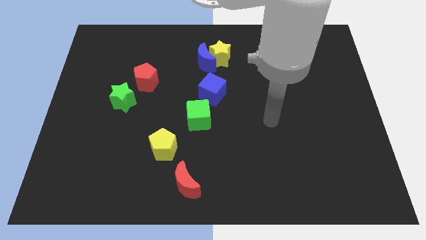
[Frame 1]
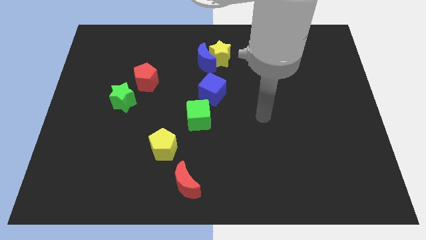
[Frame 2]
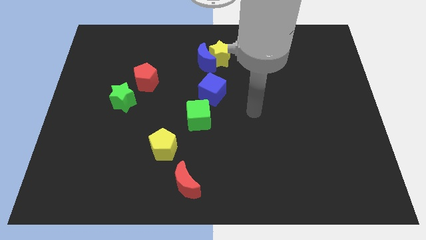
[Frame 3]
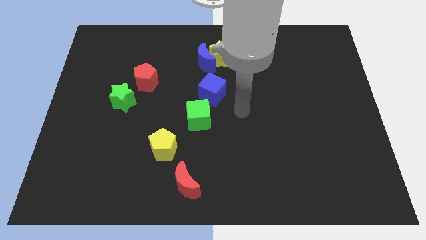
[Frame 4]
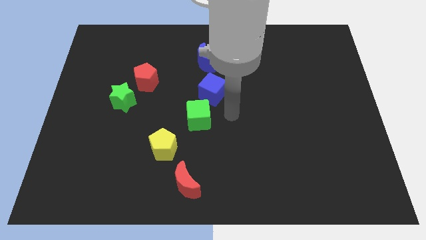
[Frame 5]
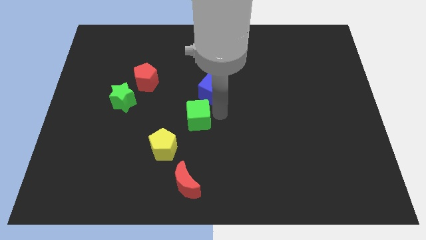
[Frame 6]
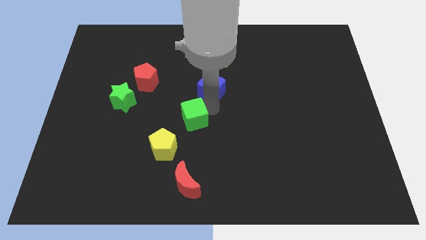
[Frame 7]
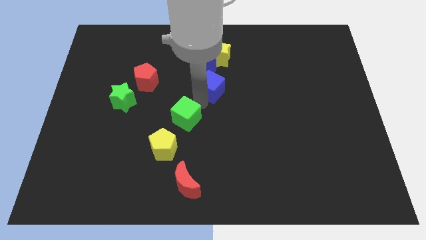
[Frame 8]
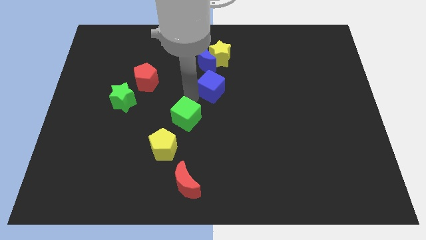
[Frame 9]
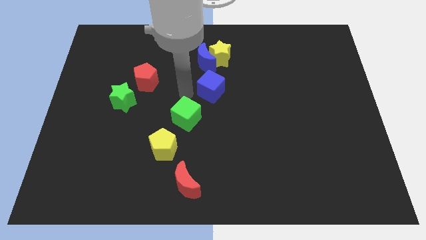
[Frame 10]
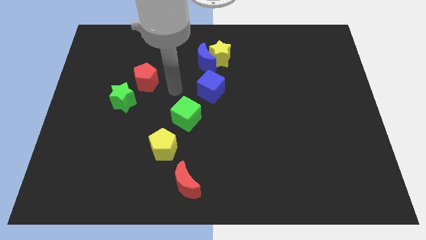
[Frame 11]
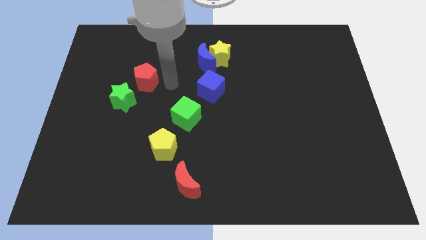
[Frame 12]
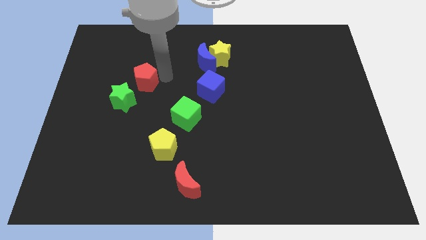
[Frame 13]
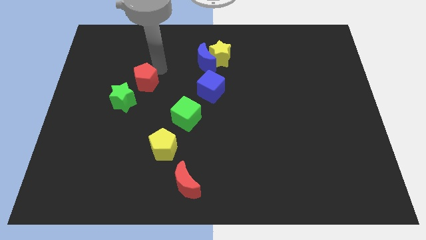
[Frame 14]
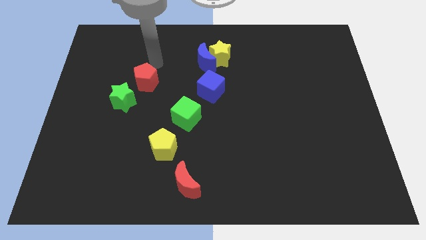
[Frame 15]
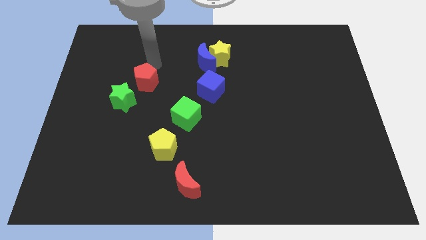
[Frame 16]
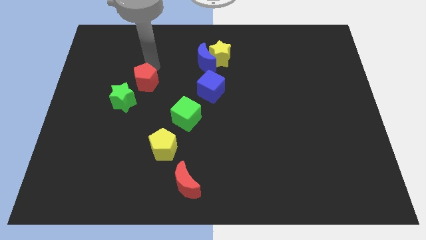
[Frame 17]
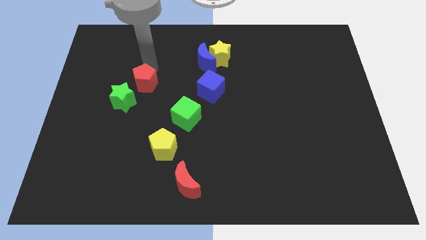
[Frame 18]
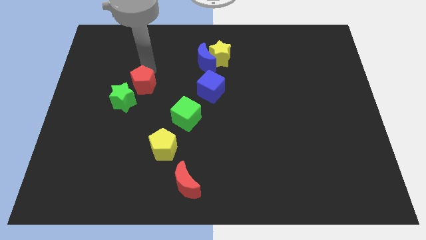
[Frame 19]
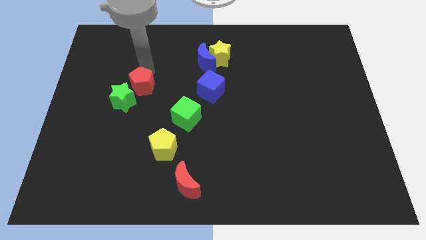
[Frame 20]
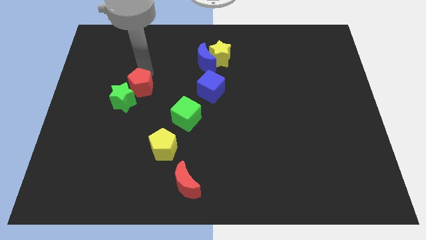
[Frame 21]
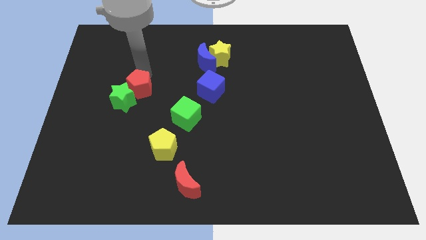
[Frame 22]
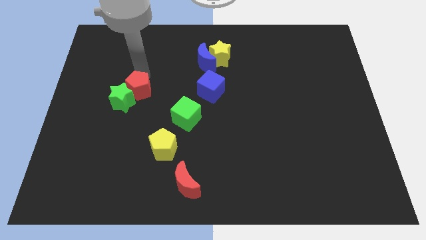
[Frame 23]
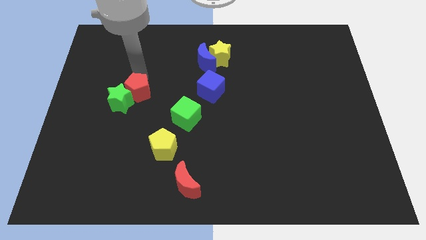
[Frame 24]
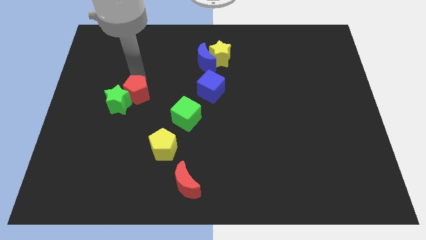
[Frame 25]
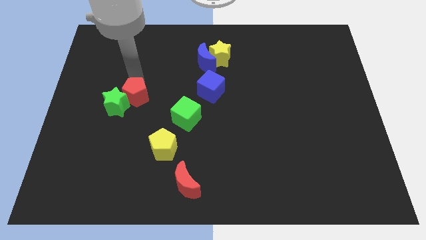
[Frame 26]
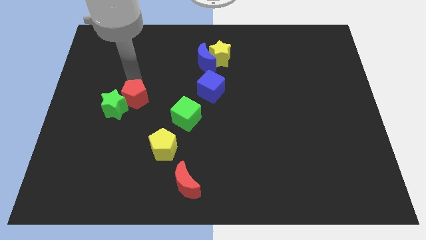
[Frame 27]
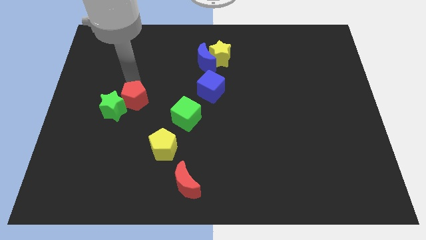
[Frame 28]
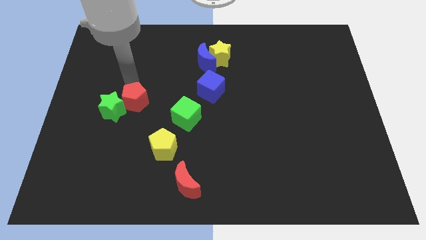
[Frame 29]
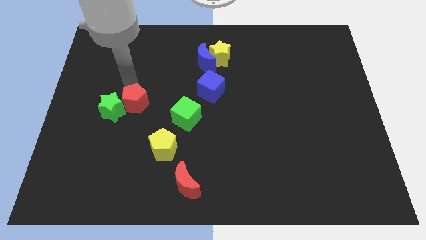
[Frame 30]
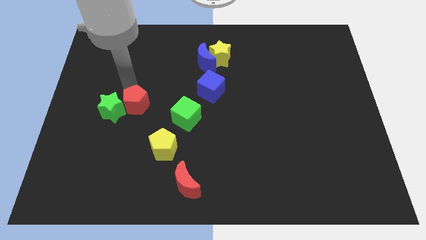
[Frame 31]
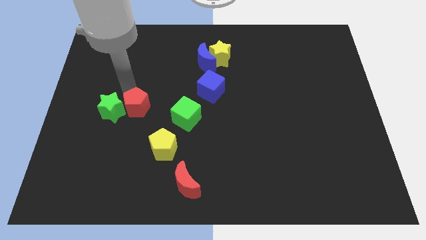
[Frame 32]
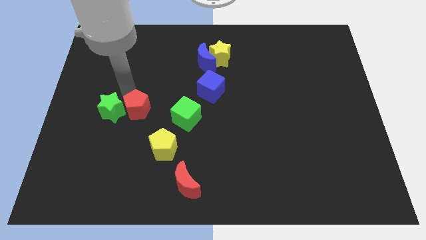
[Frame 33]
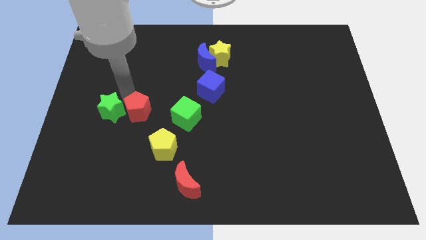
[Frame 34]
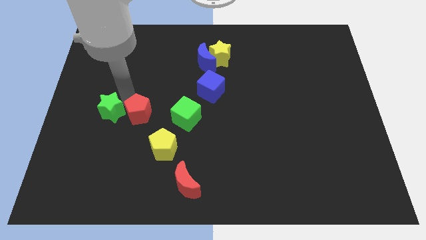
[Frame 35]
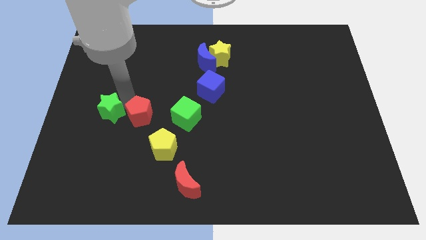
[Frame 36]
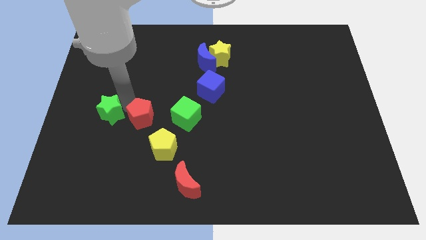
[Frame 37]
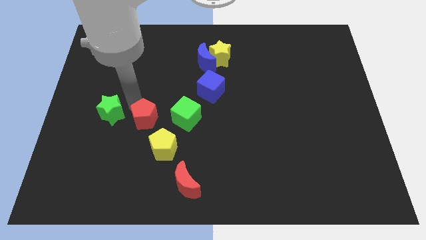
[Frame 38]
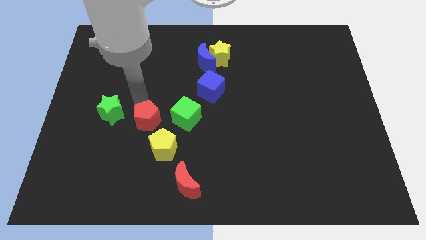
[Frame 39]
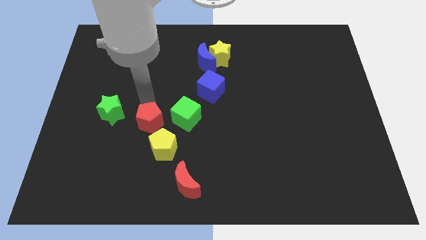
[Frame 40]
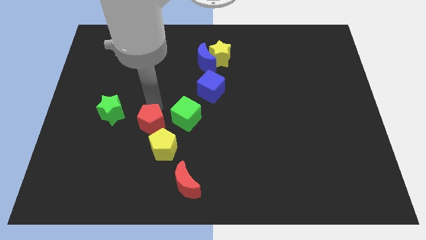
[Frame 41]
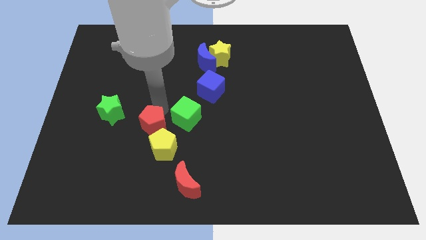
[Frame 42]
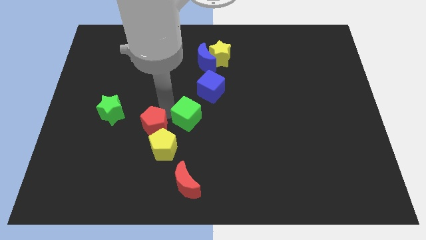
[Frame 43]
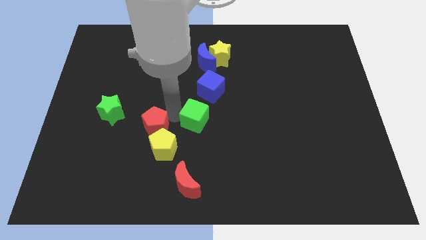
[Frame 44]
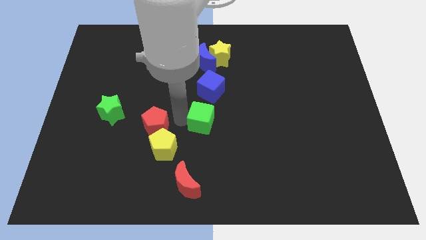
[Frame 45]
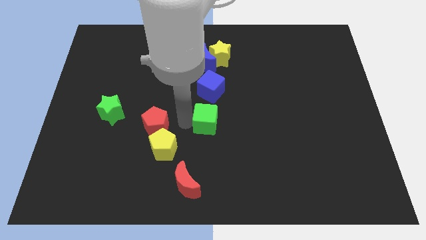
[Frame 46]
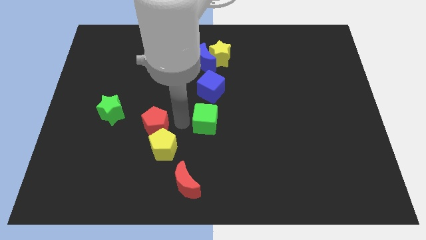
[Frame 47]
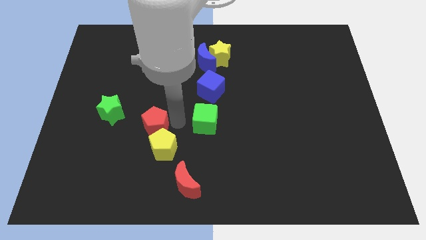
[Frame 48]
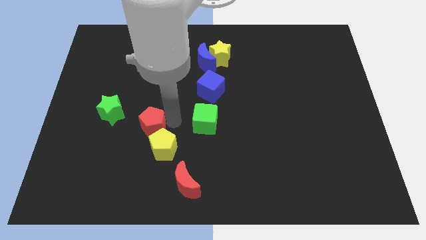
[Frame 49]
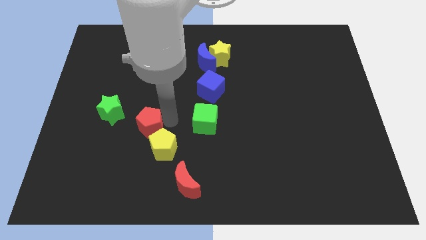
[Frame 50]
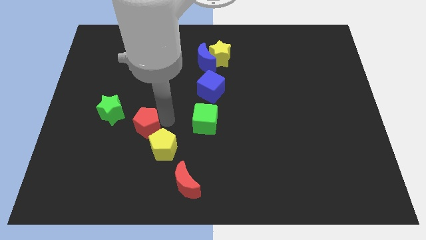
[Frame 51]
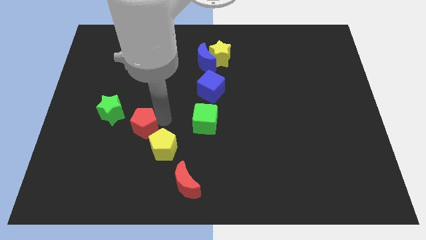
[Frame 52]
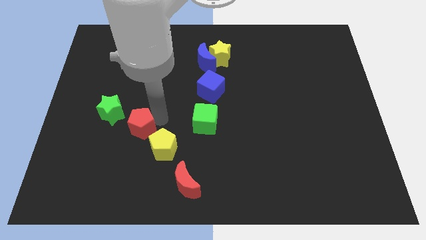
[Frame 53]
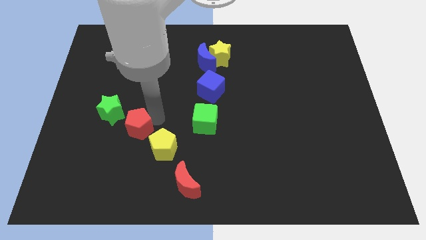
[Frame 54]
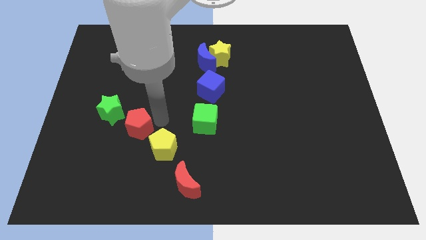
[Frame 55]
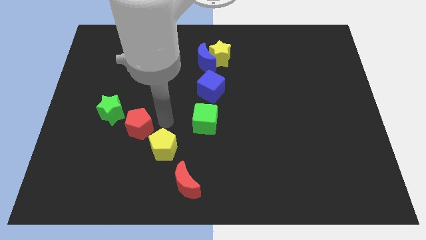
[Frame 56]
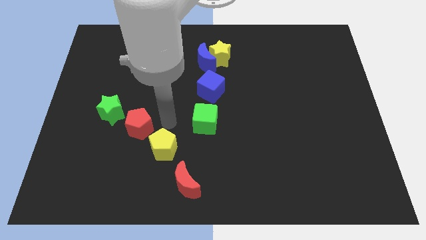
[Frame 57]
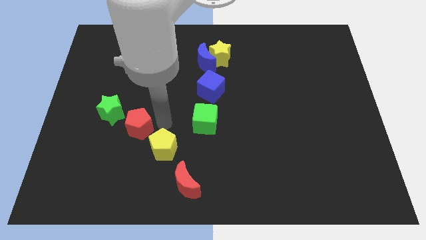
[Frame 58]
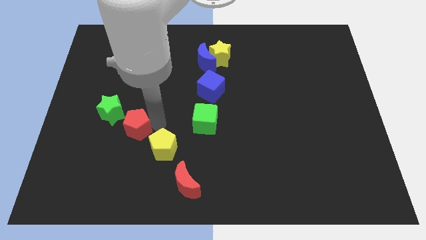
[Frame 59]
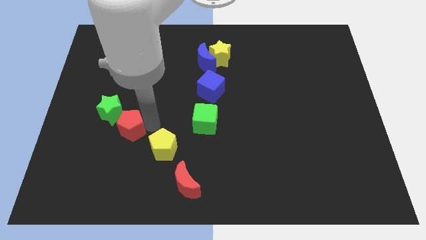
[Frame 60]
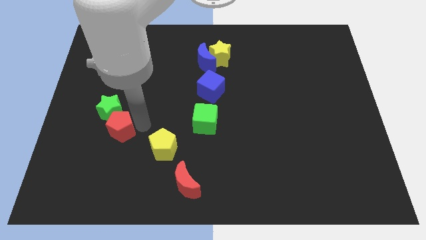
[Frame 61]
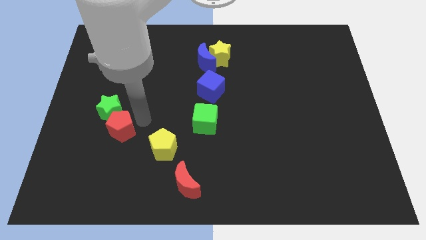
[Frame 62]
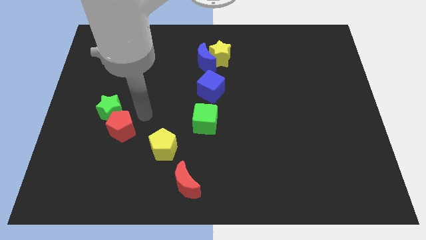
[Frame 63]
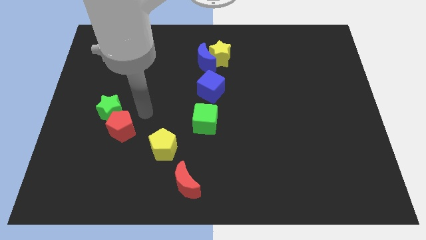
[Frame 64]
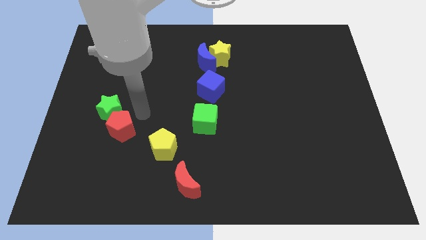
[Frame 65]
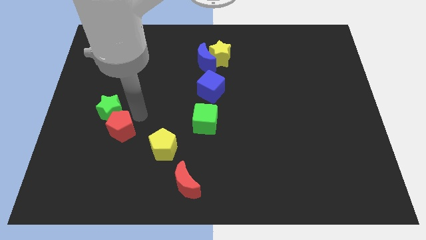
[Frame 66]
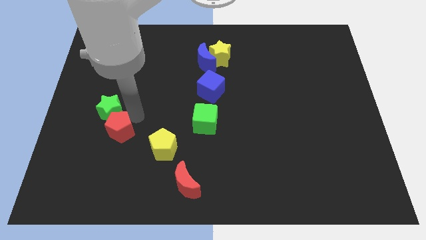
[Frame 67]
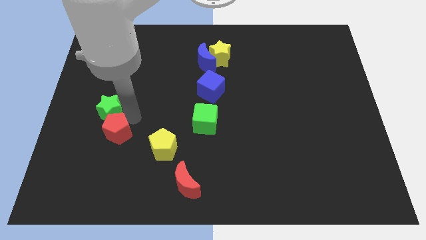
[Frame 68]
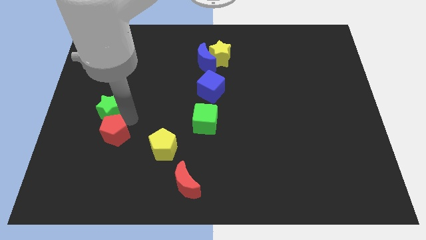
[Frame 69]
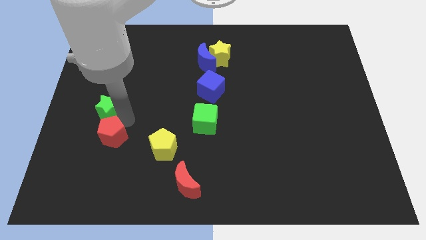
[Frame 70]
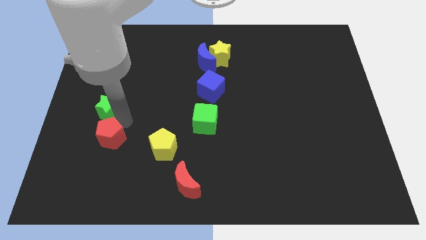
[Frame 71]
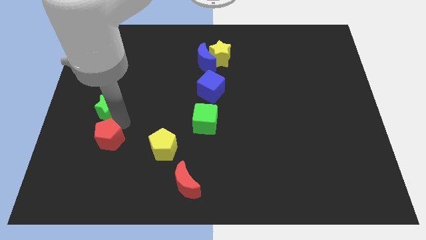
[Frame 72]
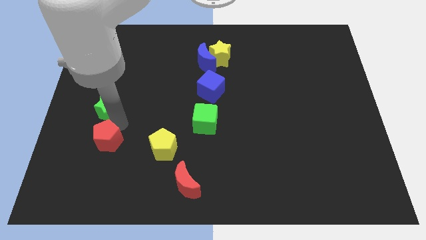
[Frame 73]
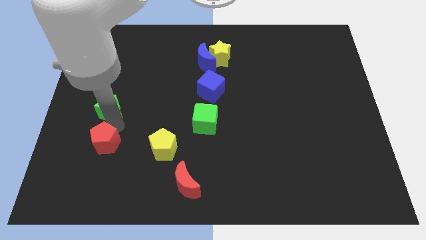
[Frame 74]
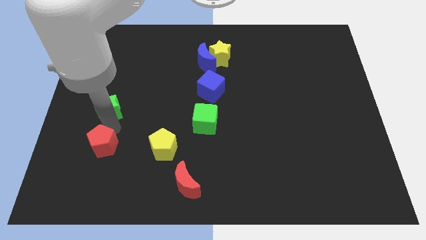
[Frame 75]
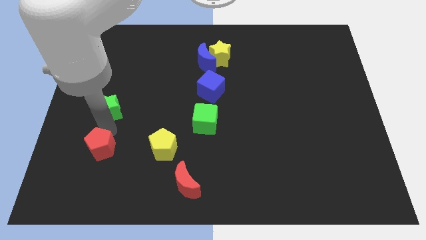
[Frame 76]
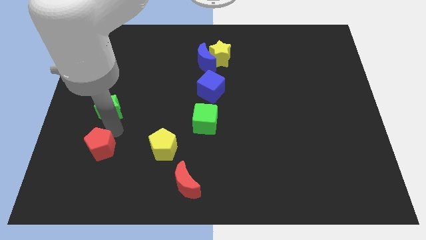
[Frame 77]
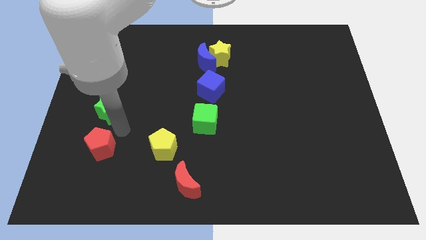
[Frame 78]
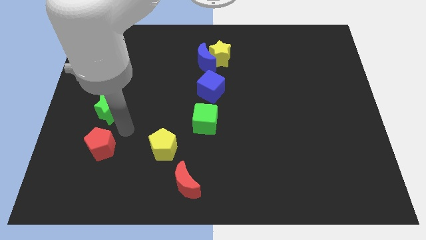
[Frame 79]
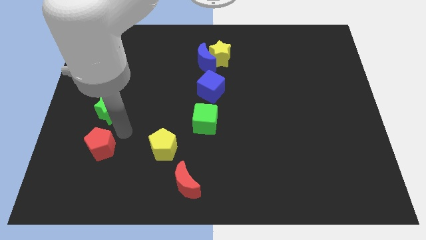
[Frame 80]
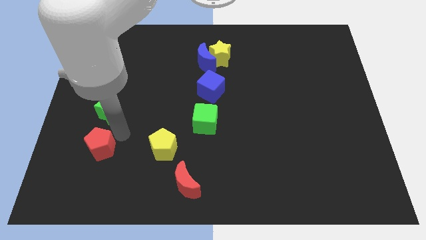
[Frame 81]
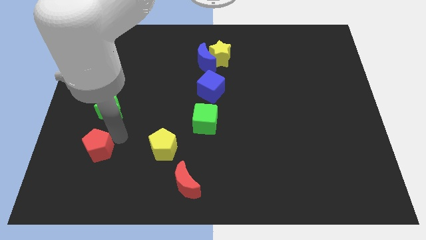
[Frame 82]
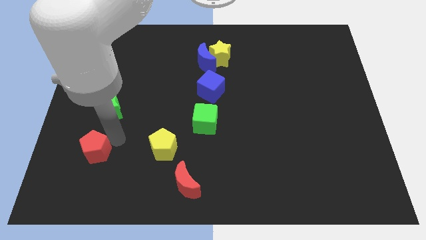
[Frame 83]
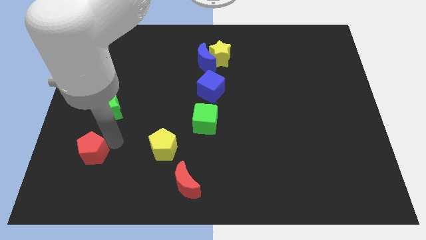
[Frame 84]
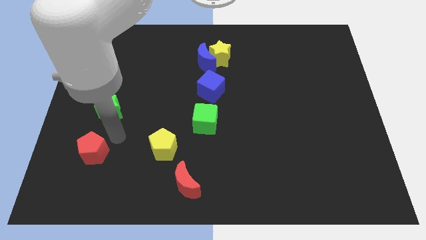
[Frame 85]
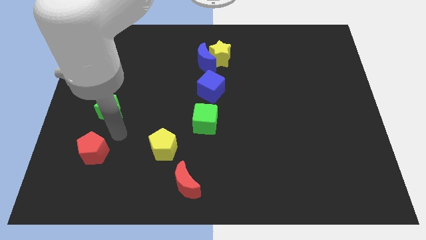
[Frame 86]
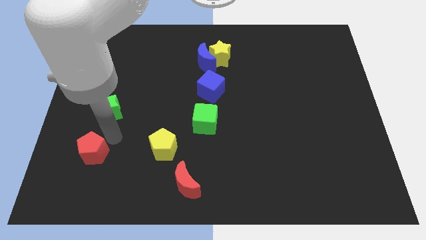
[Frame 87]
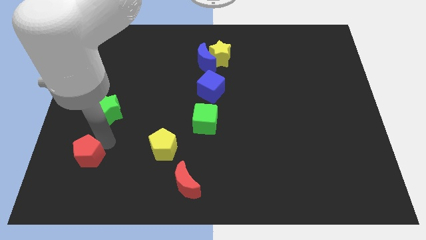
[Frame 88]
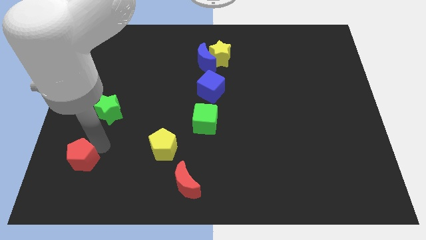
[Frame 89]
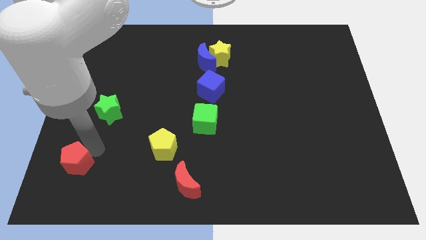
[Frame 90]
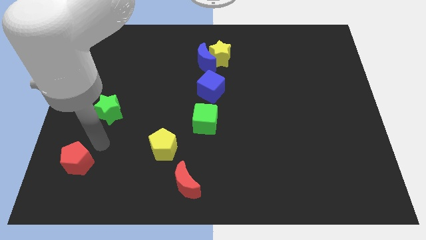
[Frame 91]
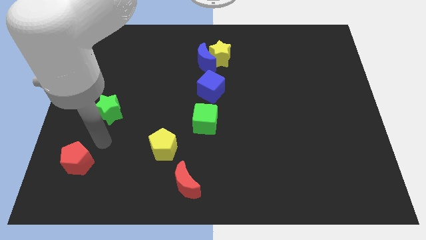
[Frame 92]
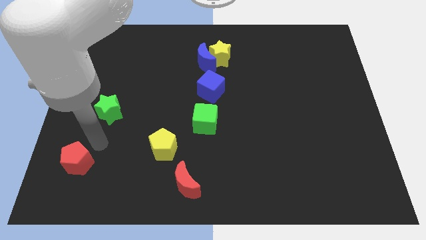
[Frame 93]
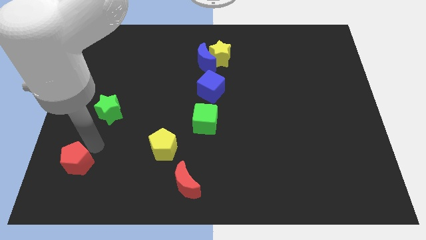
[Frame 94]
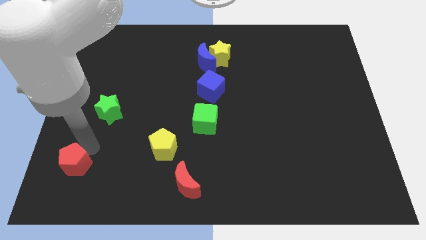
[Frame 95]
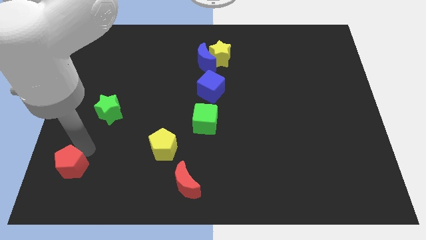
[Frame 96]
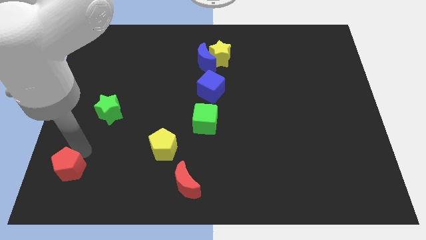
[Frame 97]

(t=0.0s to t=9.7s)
push the red pentagon to the bottom left
